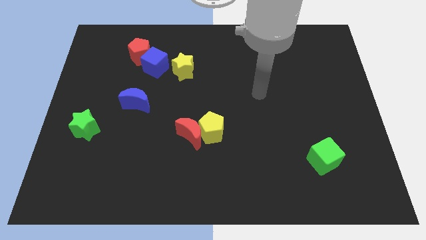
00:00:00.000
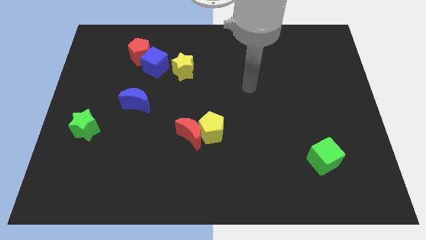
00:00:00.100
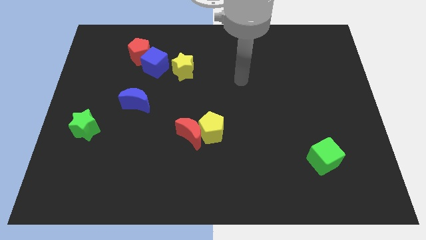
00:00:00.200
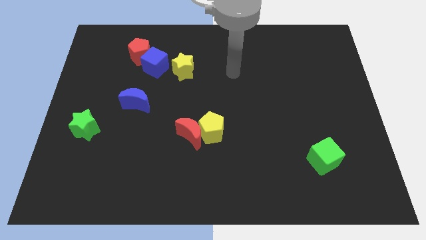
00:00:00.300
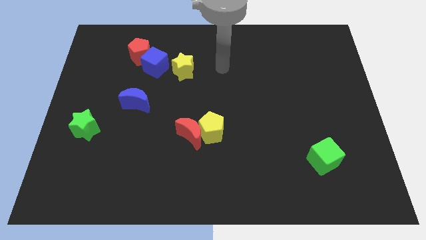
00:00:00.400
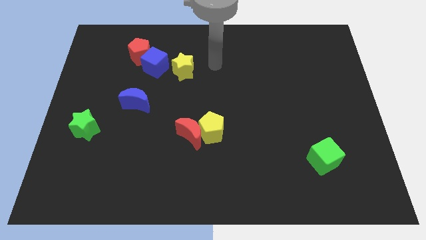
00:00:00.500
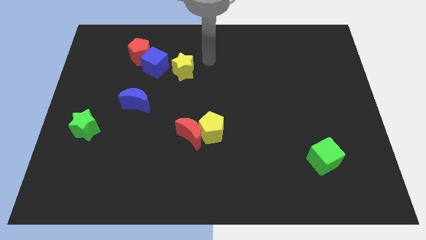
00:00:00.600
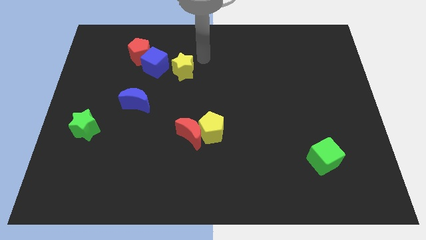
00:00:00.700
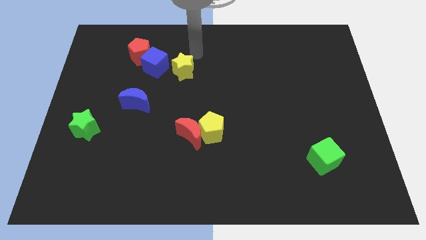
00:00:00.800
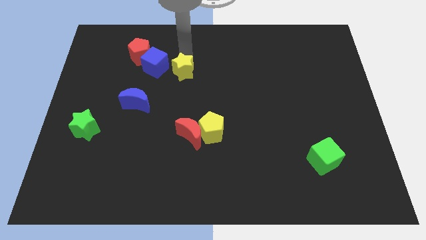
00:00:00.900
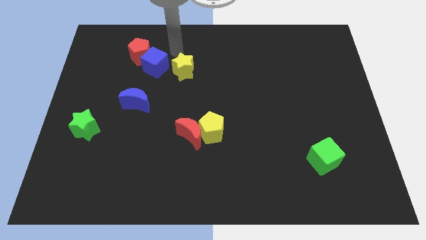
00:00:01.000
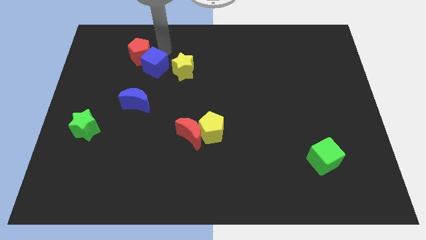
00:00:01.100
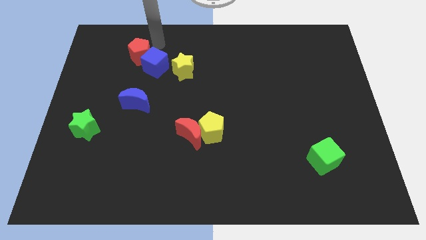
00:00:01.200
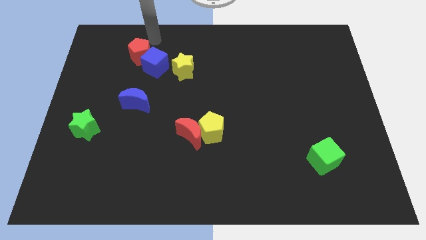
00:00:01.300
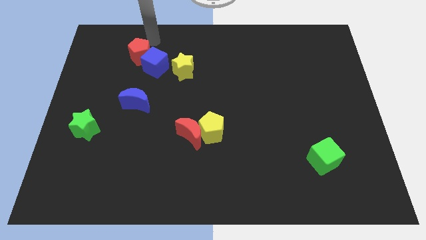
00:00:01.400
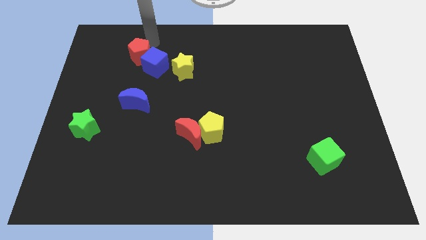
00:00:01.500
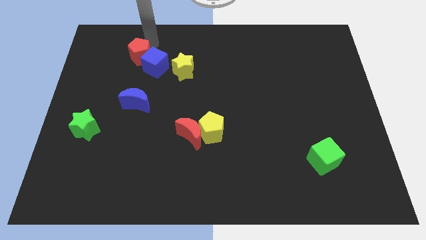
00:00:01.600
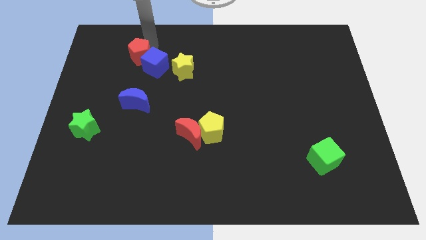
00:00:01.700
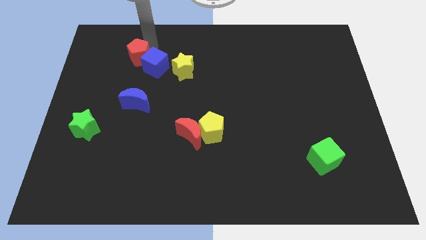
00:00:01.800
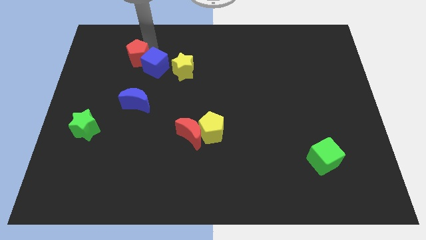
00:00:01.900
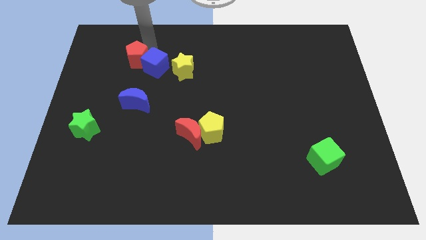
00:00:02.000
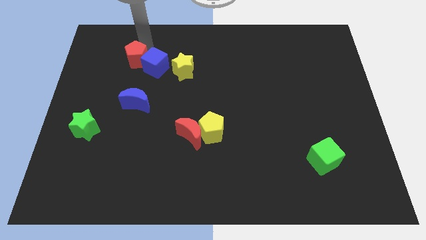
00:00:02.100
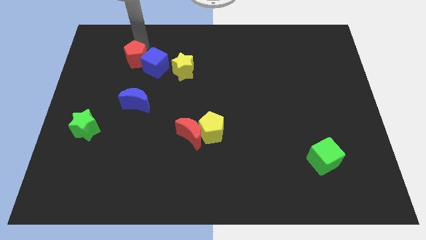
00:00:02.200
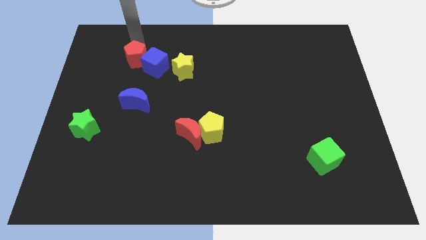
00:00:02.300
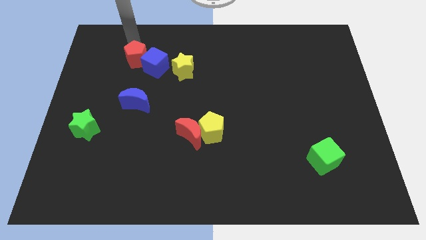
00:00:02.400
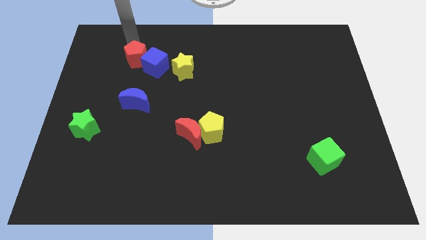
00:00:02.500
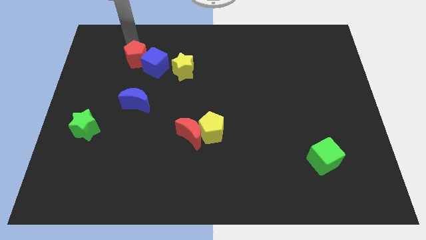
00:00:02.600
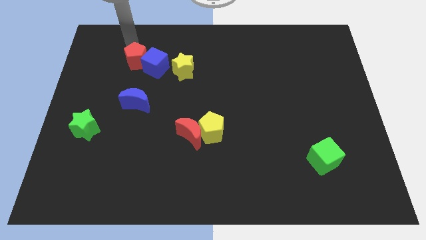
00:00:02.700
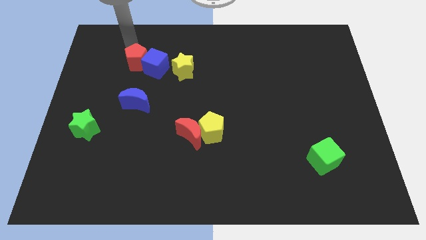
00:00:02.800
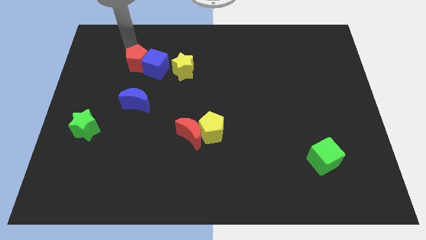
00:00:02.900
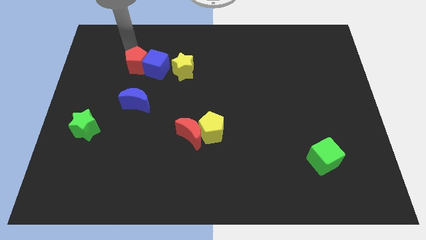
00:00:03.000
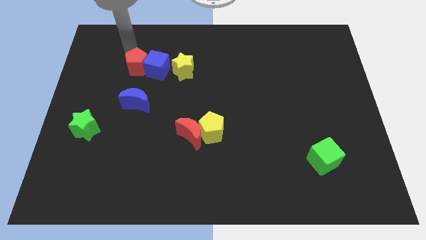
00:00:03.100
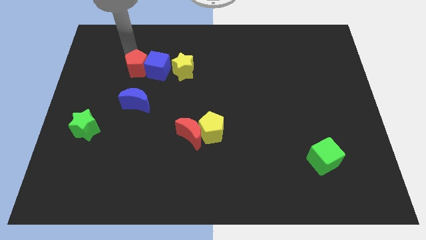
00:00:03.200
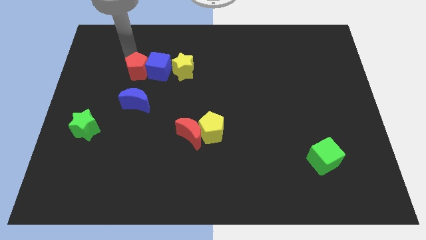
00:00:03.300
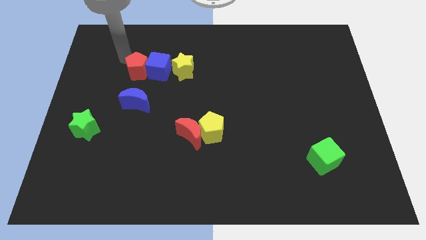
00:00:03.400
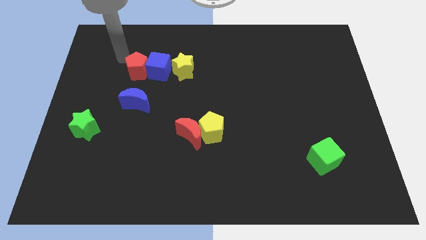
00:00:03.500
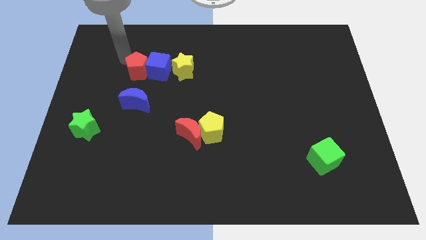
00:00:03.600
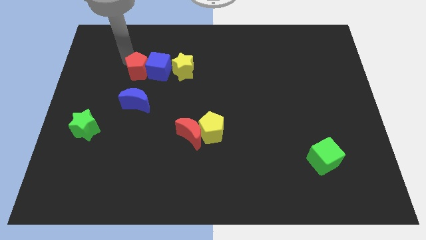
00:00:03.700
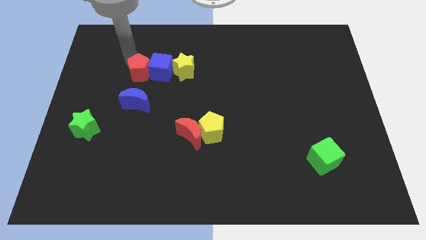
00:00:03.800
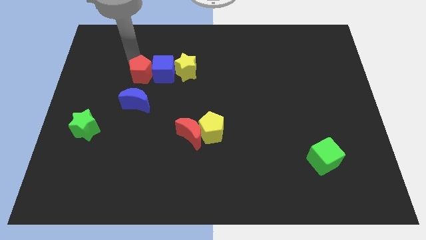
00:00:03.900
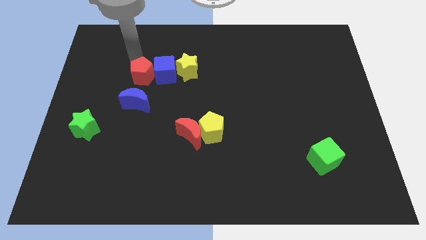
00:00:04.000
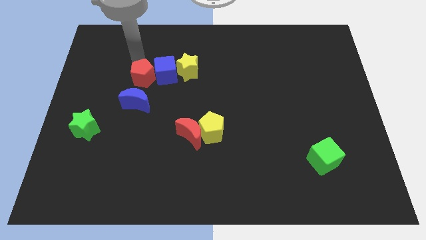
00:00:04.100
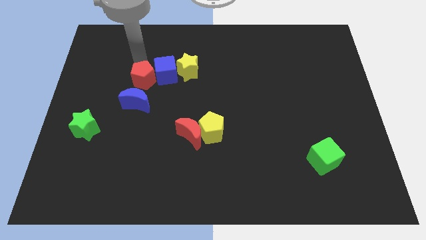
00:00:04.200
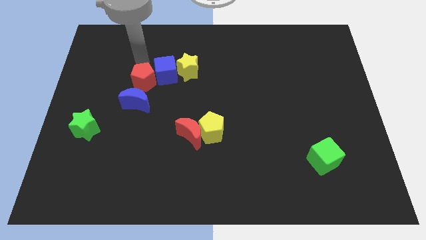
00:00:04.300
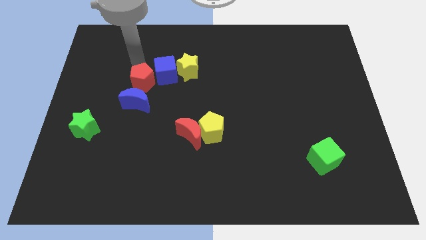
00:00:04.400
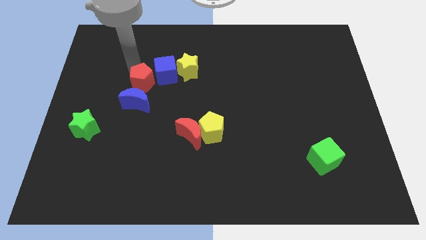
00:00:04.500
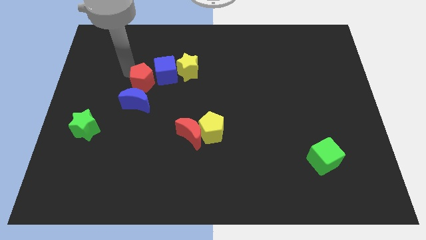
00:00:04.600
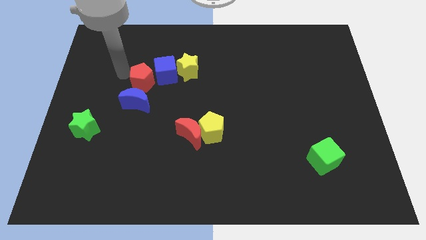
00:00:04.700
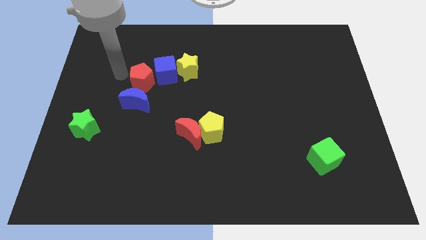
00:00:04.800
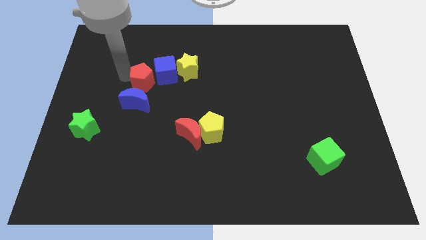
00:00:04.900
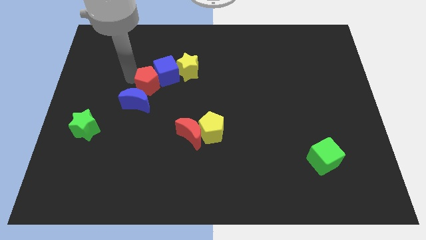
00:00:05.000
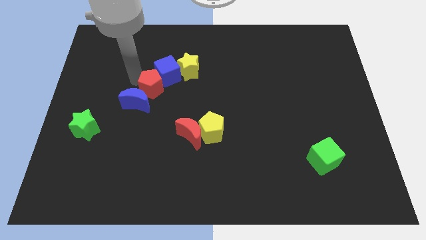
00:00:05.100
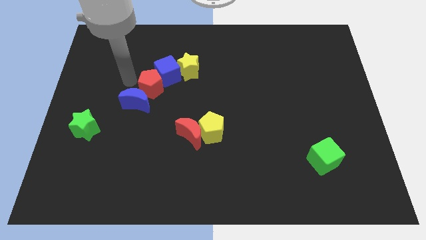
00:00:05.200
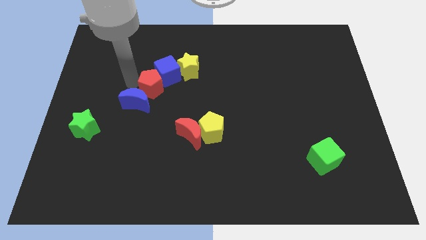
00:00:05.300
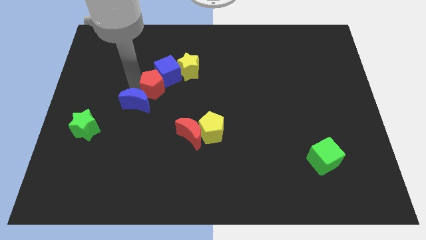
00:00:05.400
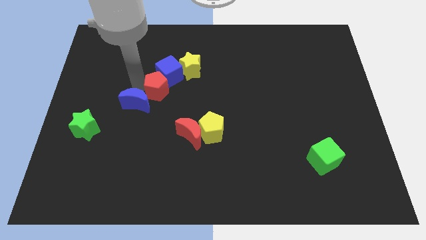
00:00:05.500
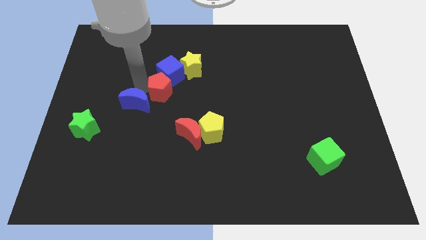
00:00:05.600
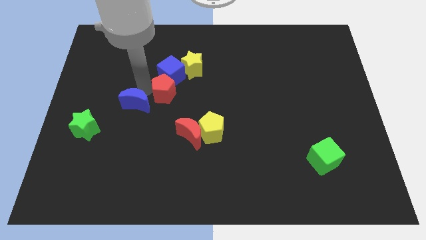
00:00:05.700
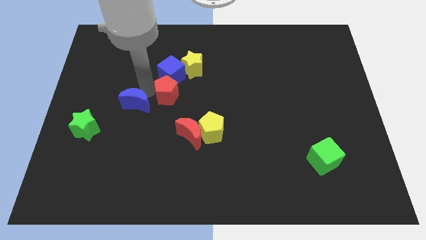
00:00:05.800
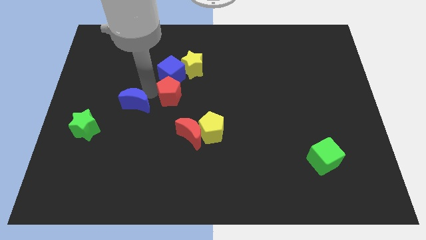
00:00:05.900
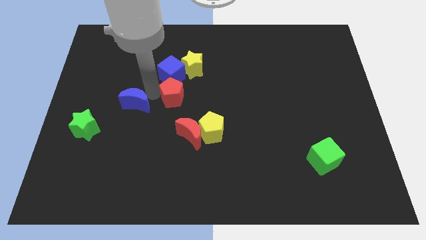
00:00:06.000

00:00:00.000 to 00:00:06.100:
put the red pentagon to the top side of the red moon

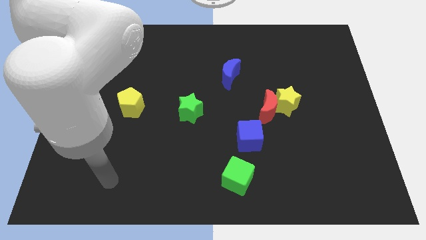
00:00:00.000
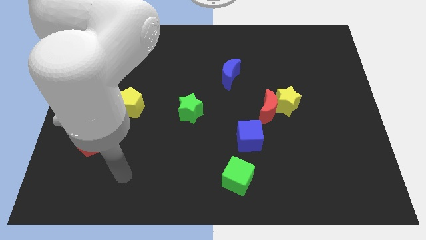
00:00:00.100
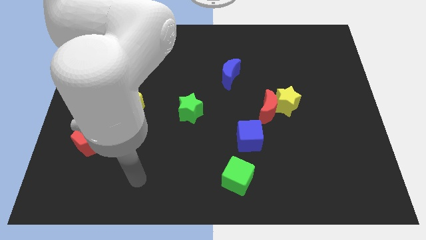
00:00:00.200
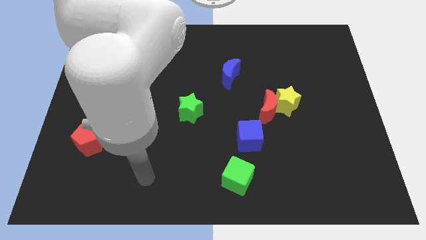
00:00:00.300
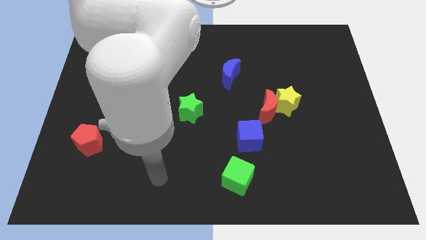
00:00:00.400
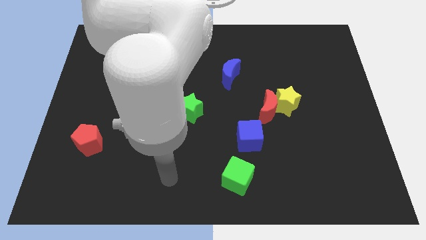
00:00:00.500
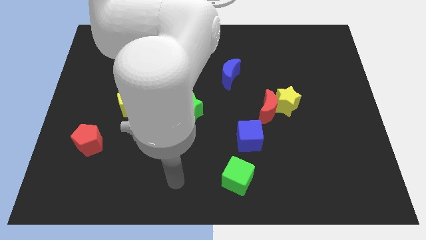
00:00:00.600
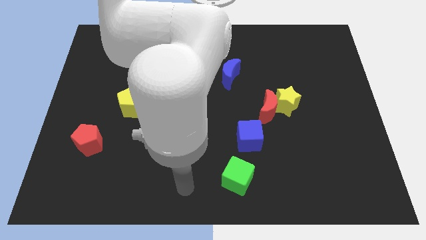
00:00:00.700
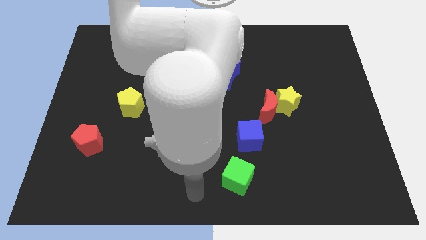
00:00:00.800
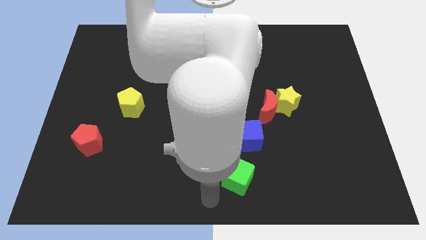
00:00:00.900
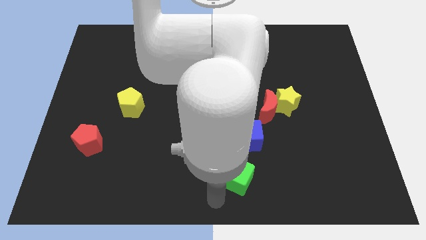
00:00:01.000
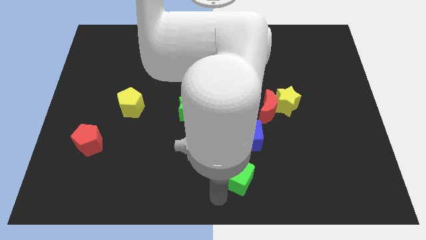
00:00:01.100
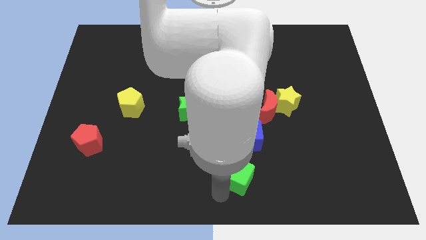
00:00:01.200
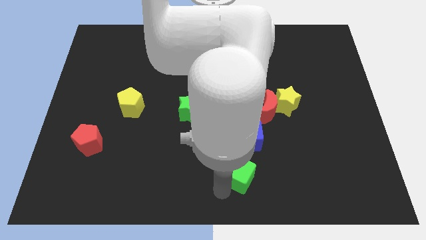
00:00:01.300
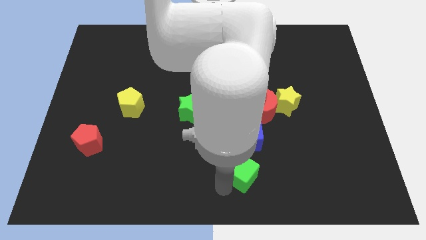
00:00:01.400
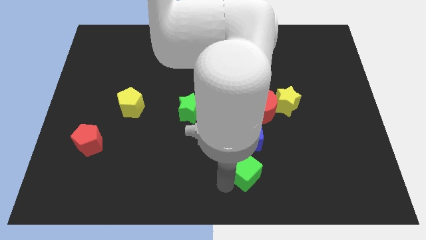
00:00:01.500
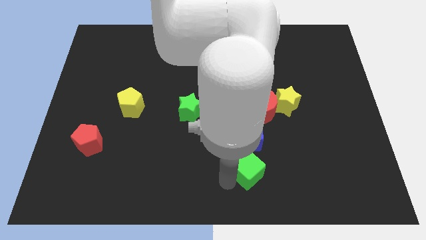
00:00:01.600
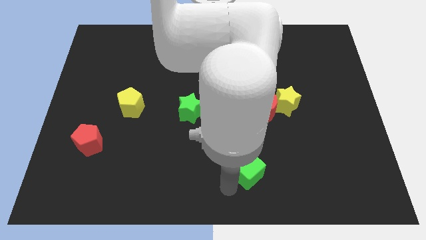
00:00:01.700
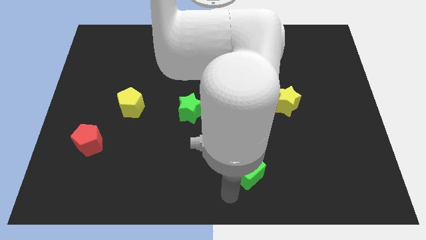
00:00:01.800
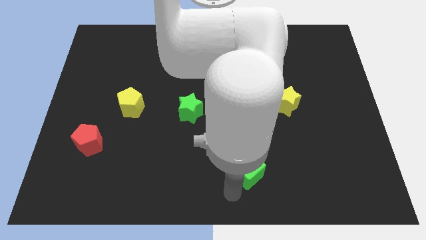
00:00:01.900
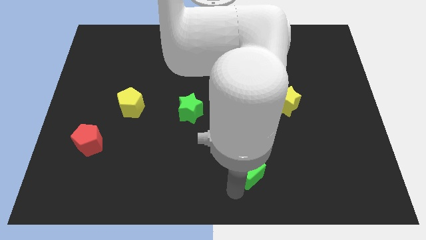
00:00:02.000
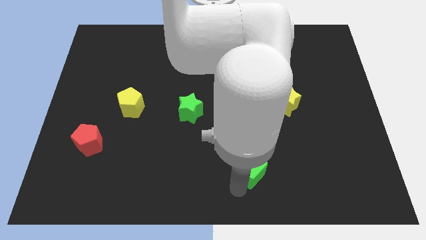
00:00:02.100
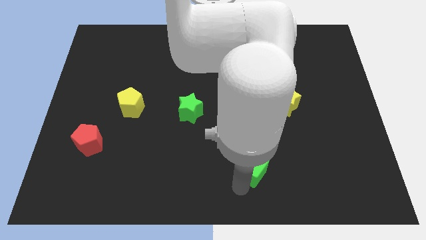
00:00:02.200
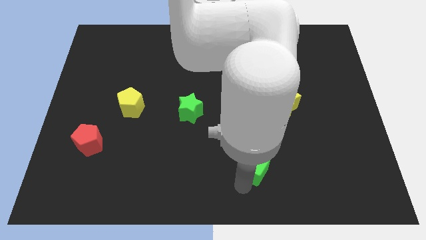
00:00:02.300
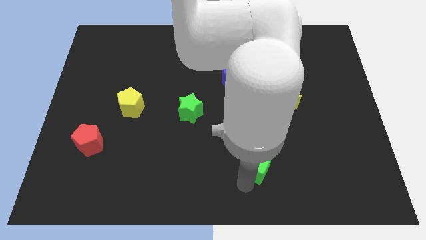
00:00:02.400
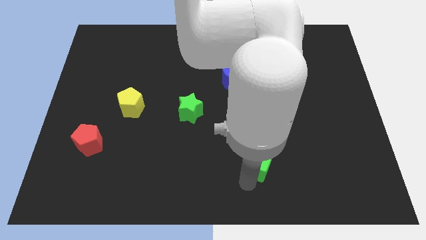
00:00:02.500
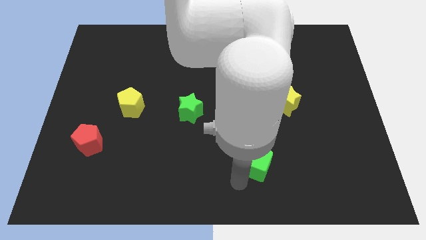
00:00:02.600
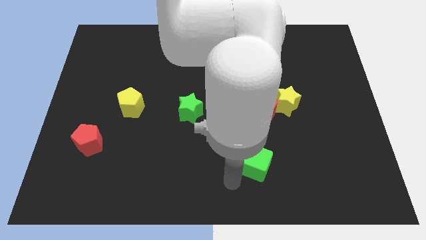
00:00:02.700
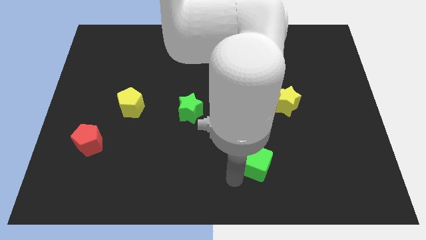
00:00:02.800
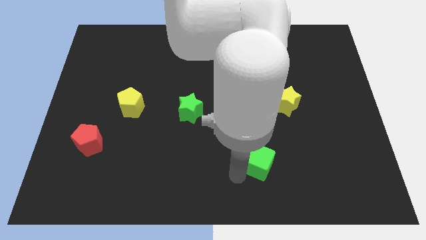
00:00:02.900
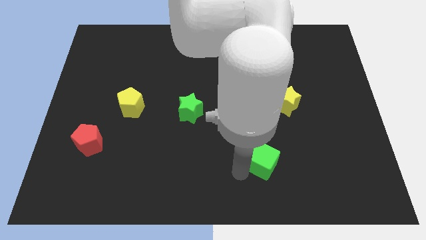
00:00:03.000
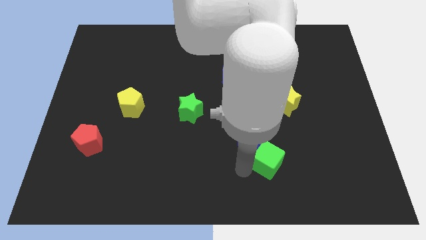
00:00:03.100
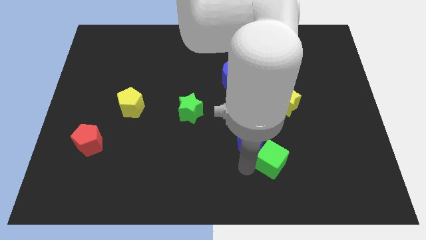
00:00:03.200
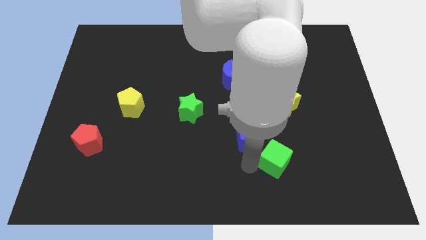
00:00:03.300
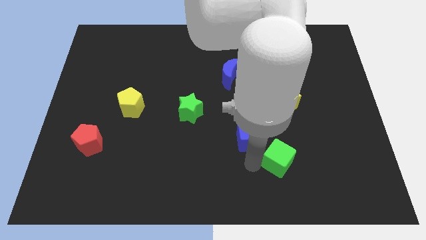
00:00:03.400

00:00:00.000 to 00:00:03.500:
put the green cube below the yellow star
